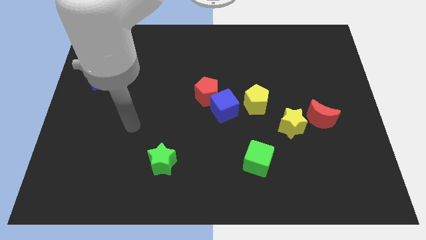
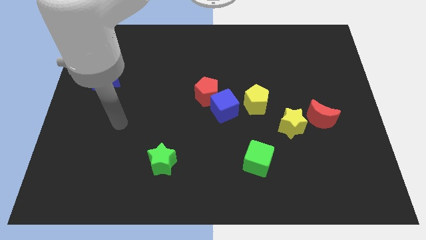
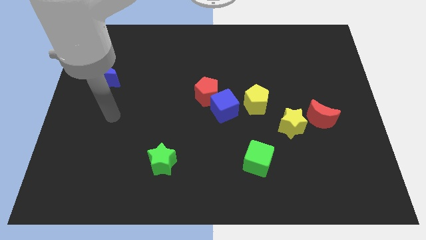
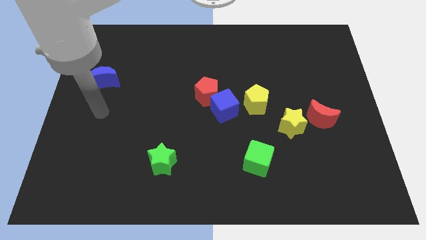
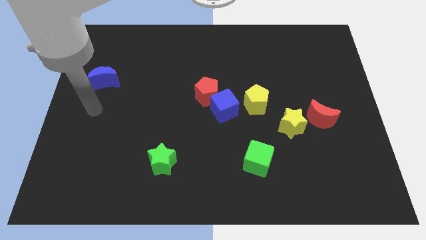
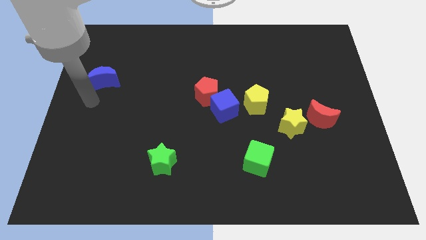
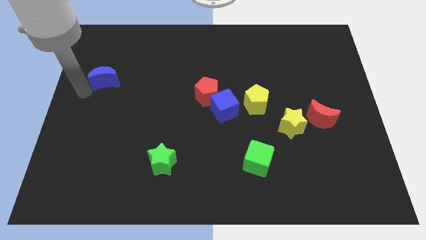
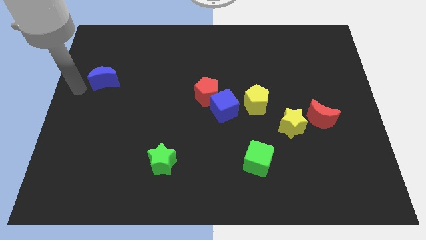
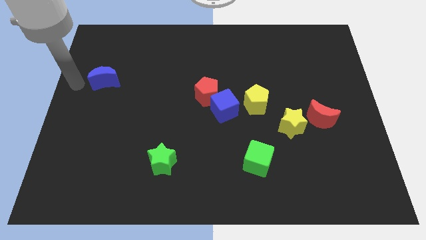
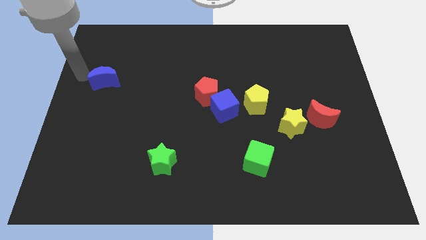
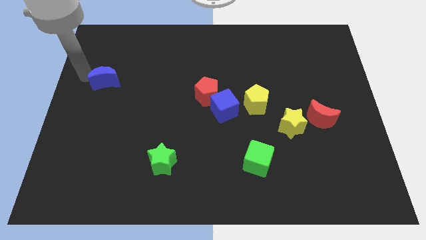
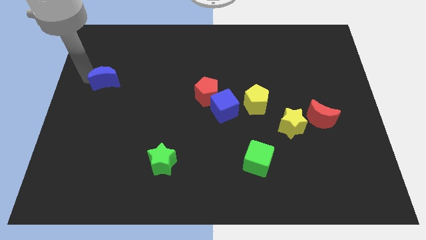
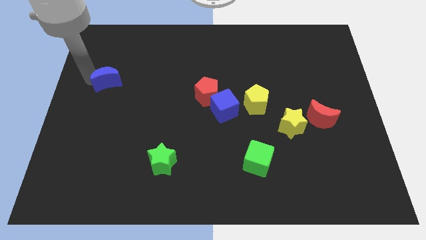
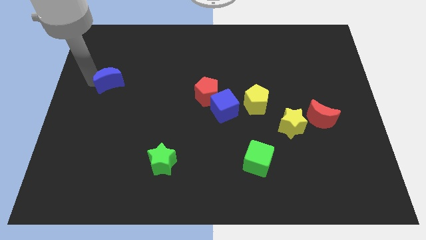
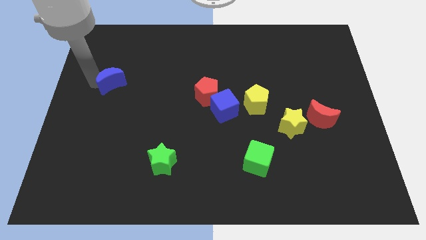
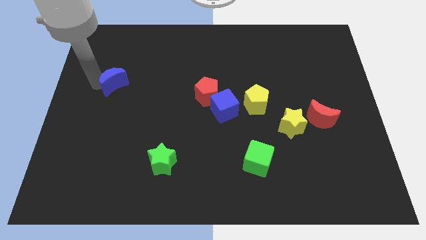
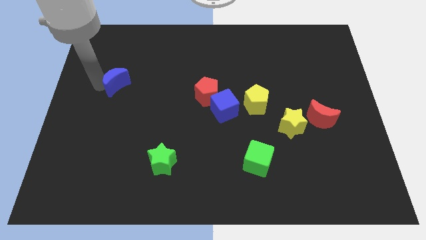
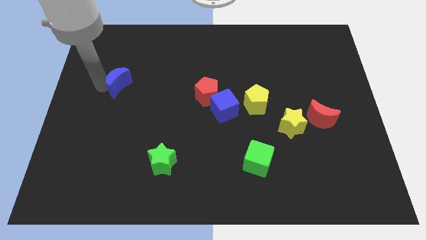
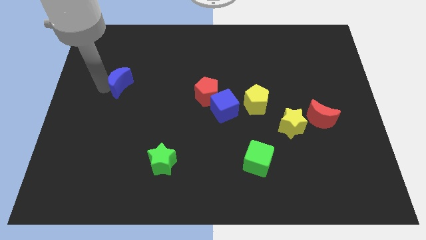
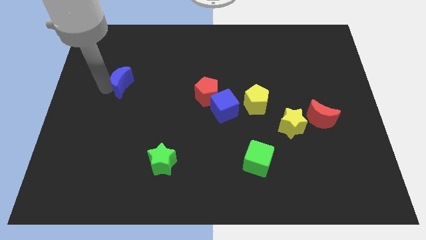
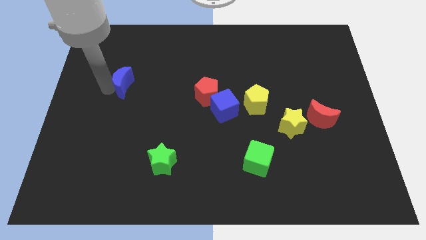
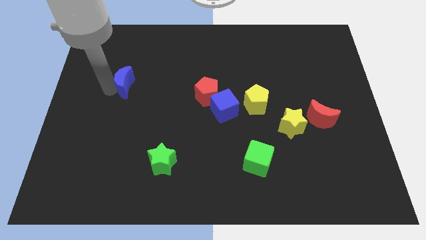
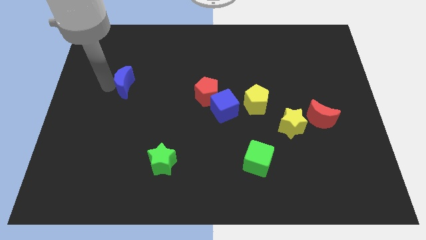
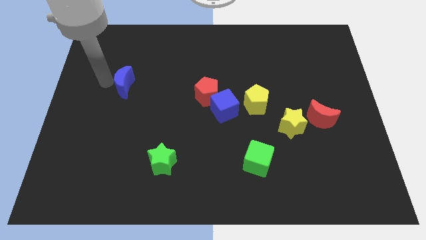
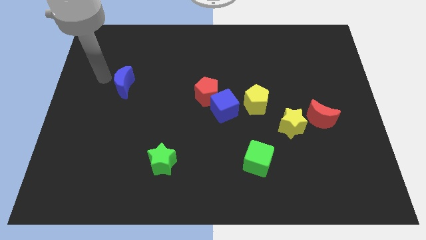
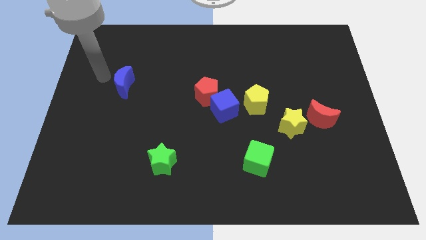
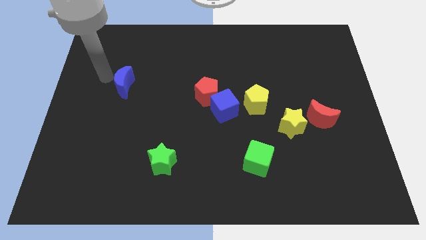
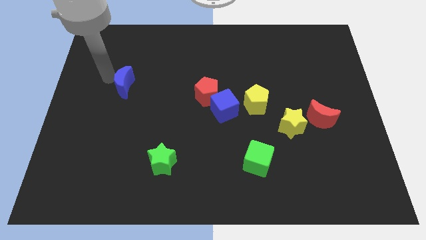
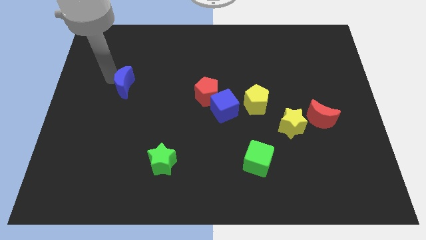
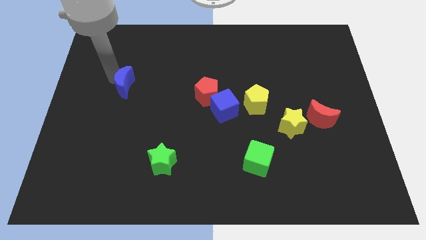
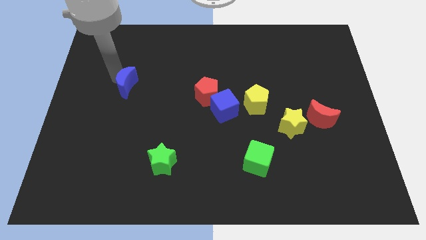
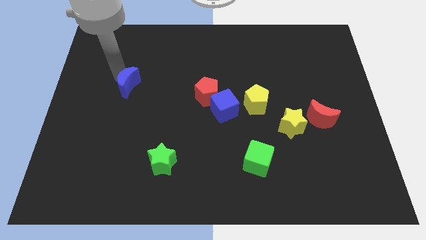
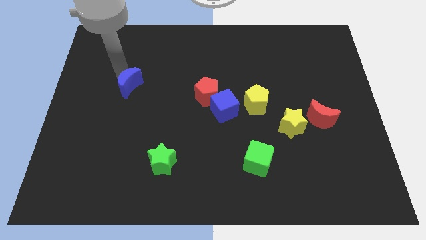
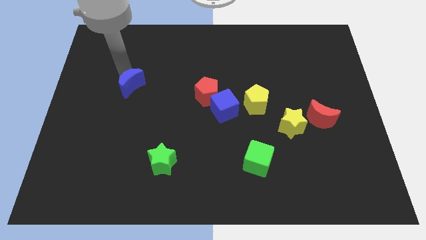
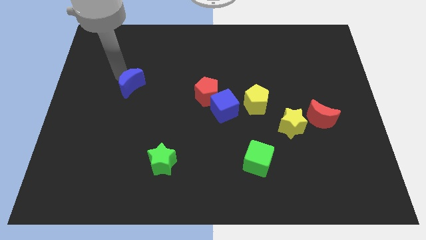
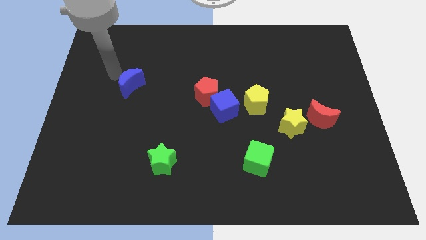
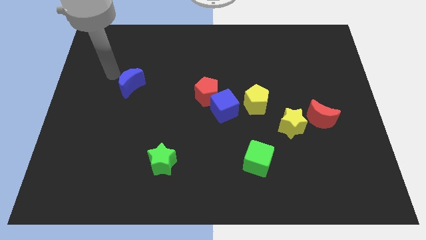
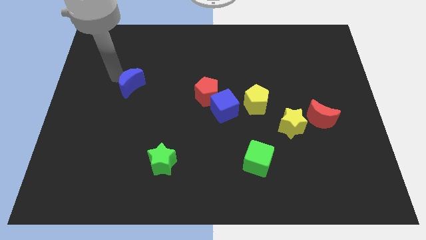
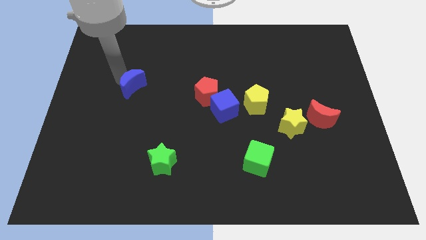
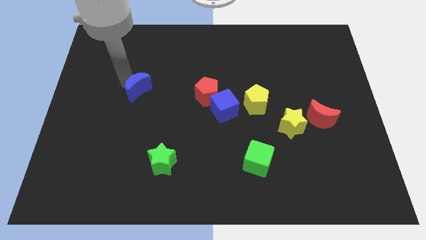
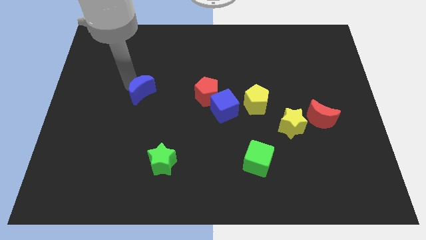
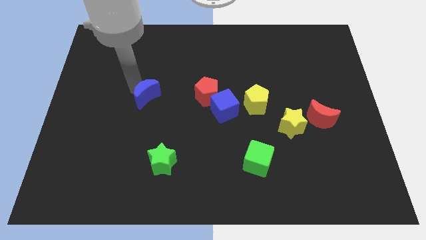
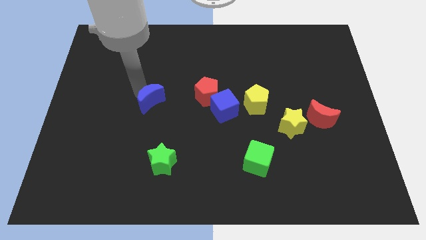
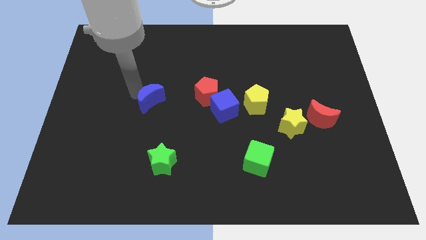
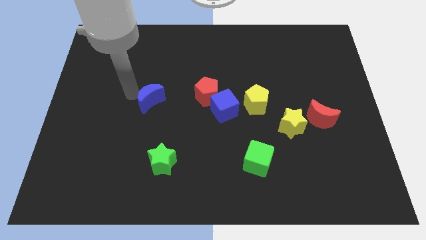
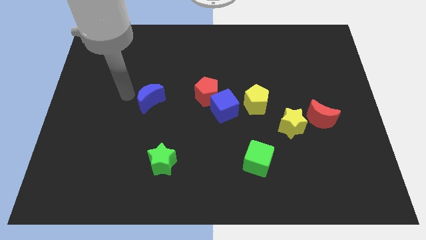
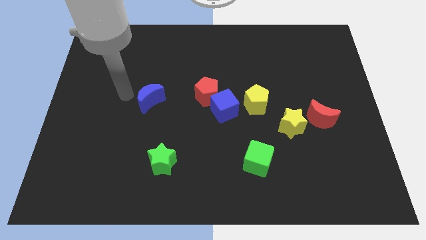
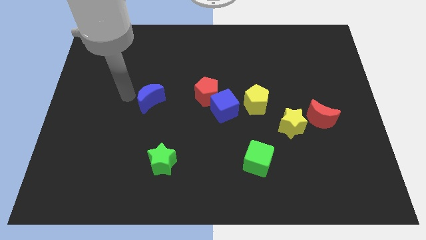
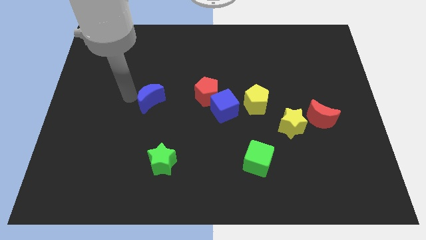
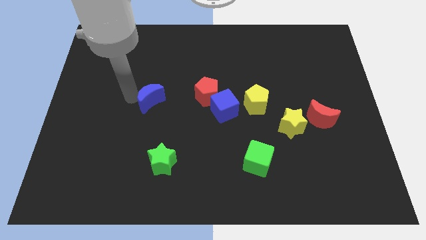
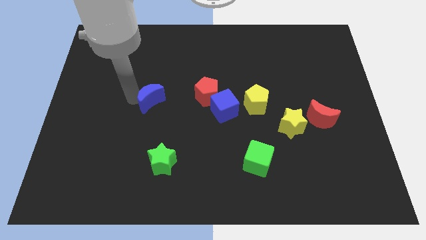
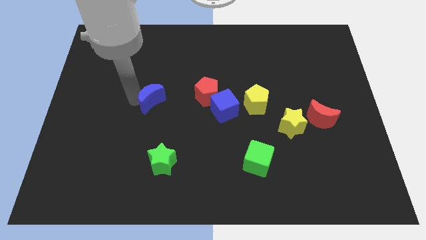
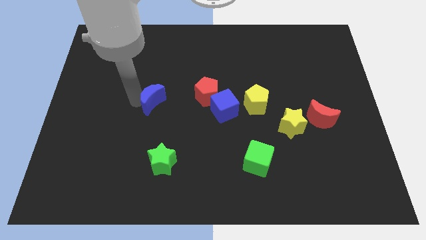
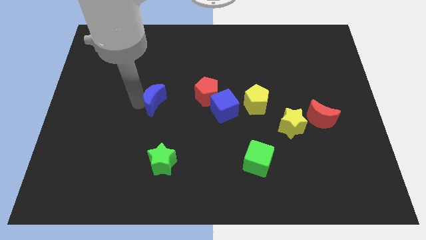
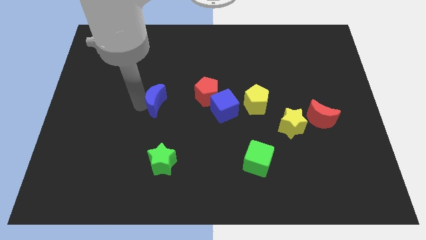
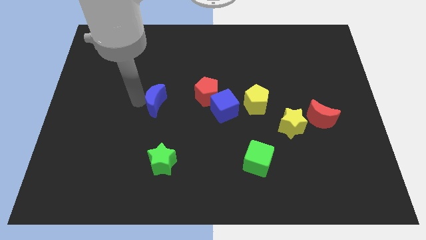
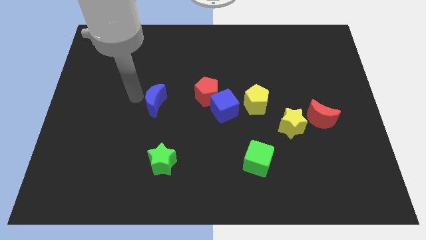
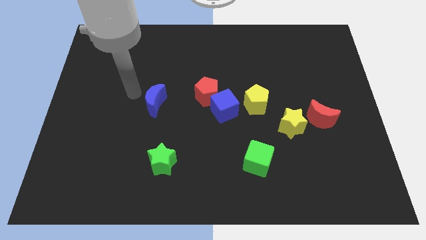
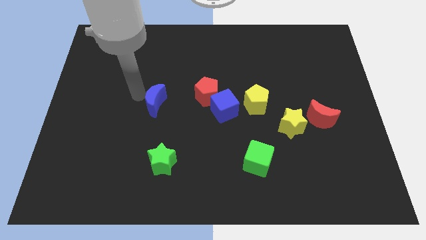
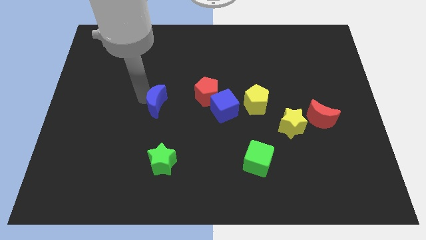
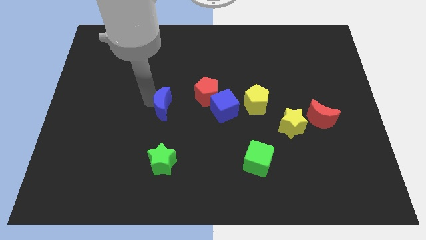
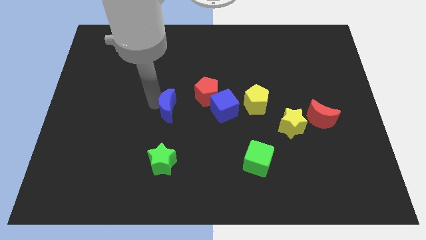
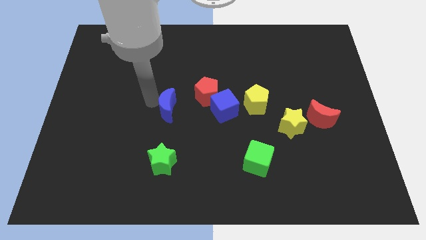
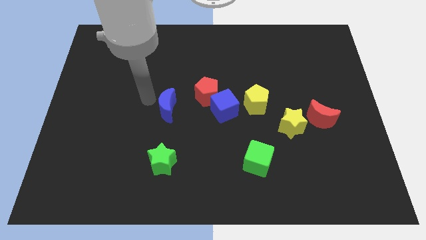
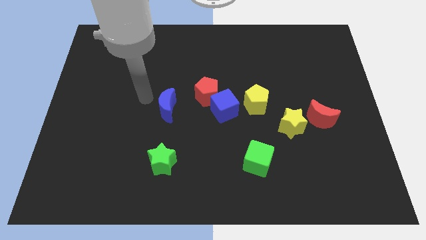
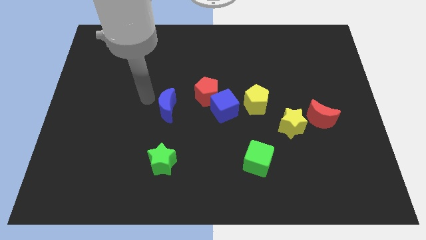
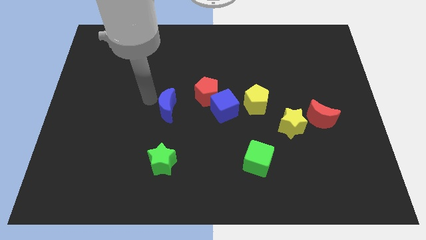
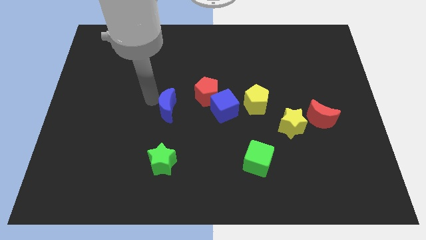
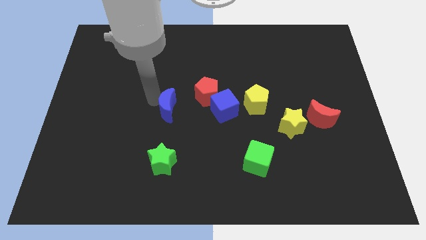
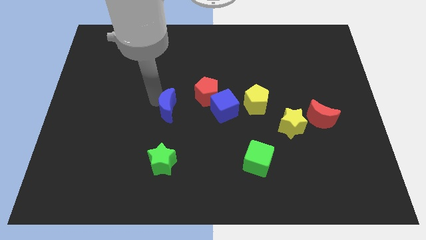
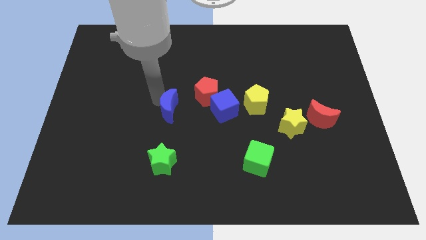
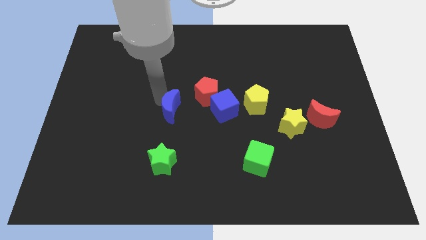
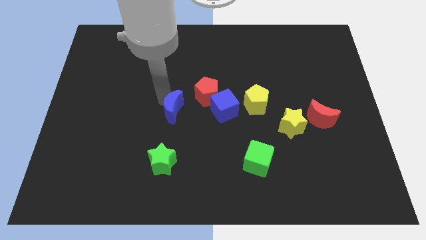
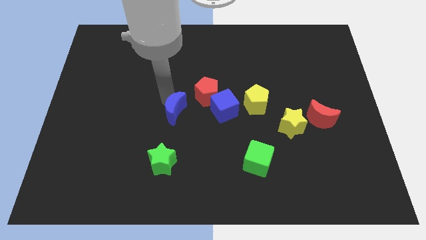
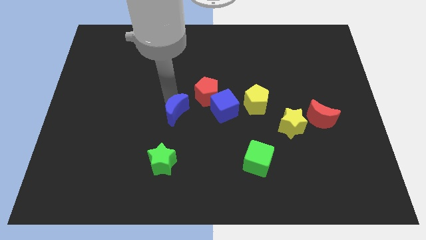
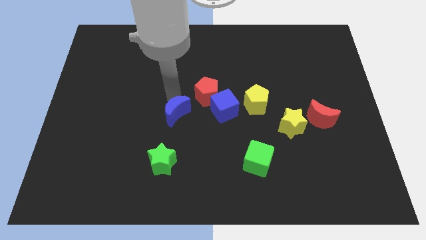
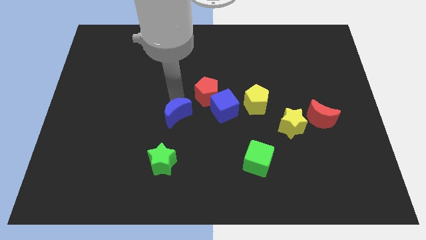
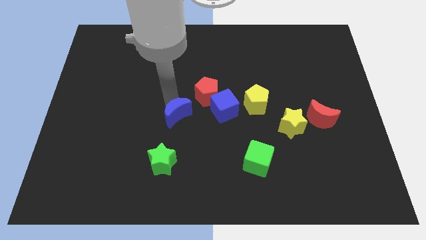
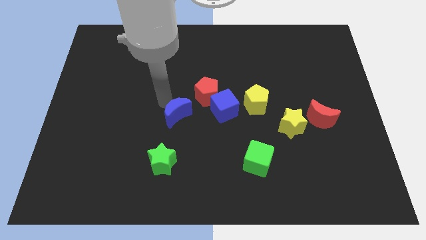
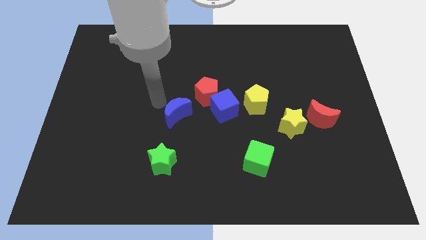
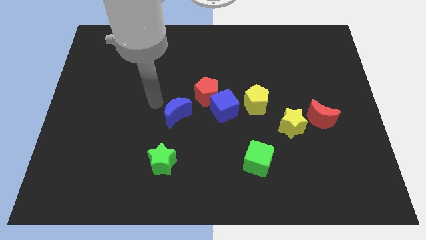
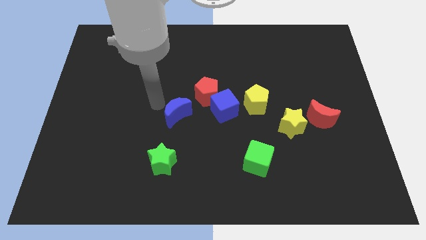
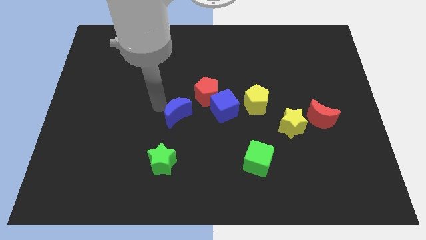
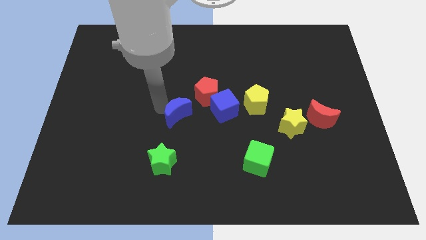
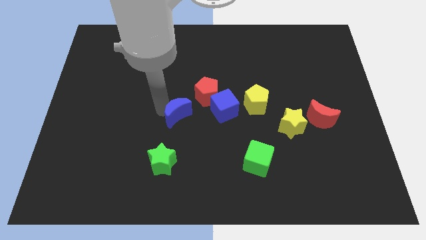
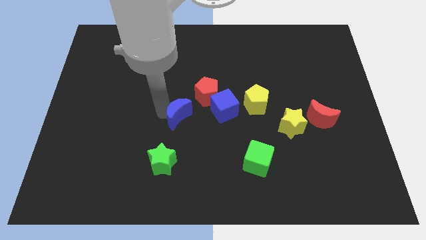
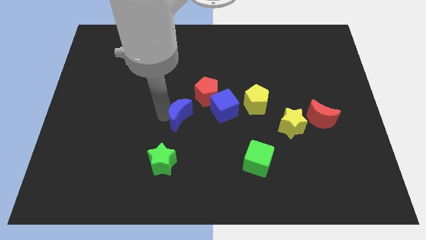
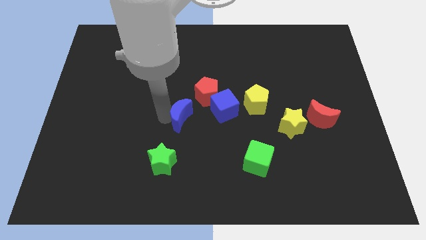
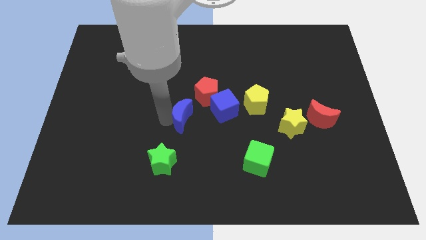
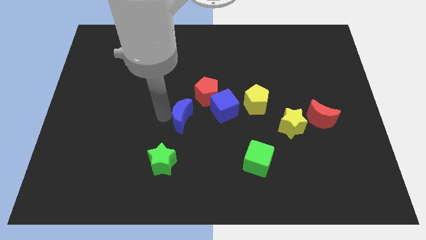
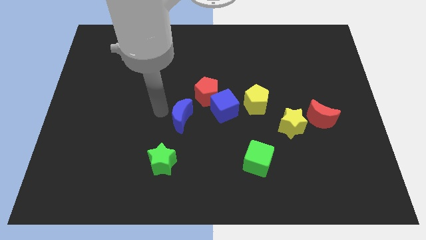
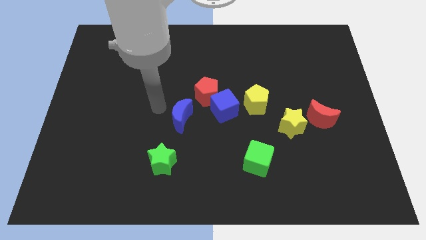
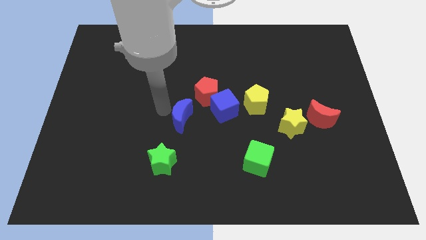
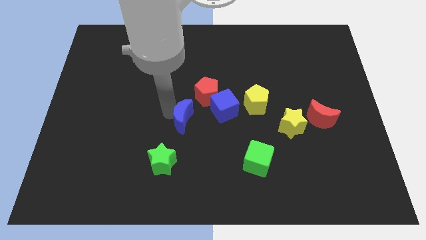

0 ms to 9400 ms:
put the blue moon to the bottom left of the blue cube
